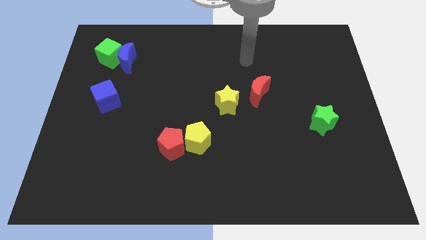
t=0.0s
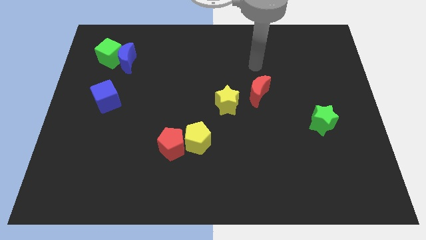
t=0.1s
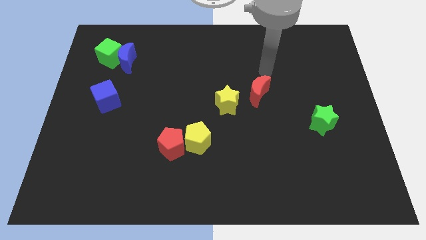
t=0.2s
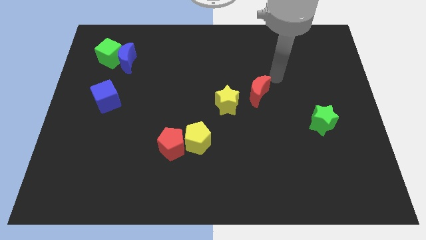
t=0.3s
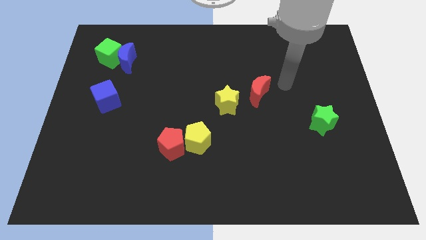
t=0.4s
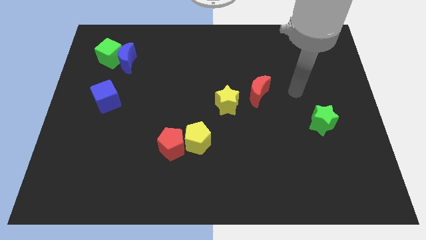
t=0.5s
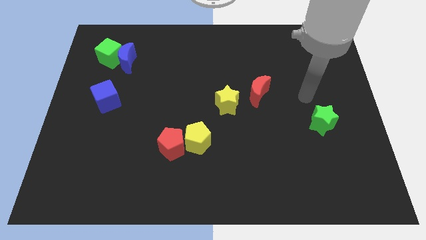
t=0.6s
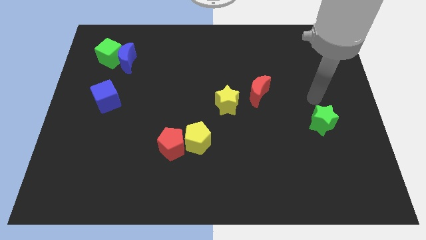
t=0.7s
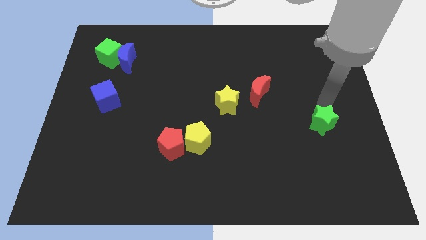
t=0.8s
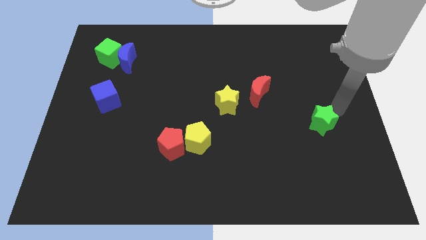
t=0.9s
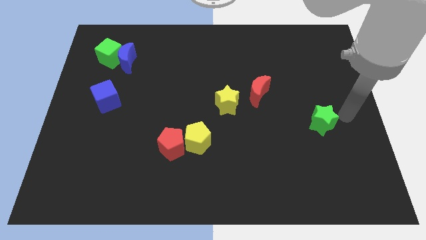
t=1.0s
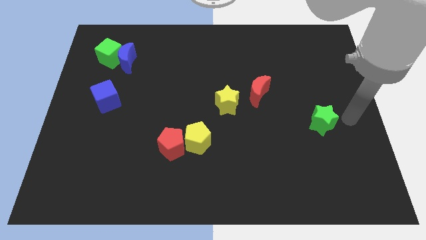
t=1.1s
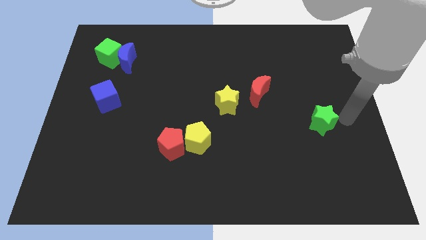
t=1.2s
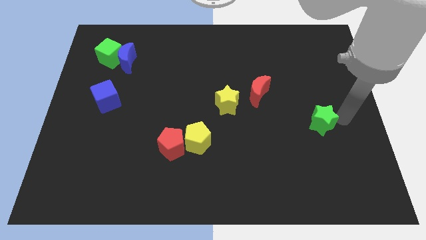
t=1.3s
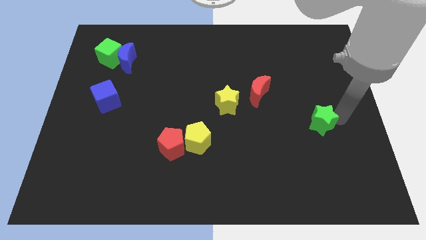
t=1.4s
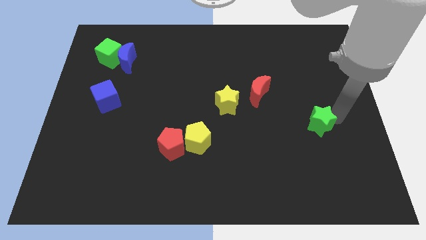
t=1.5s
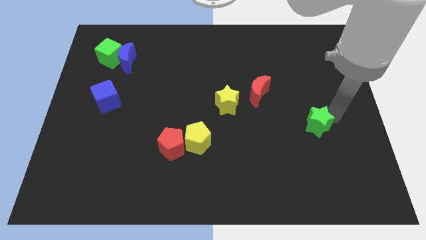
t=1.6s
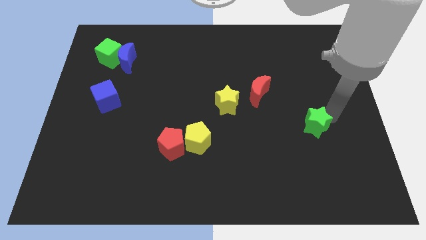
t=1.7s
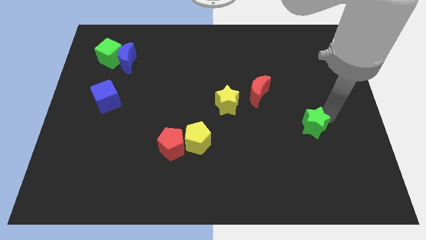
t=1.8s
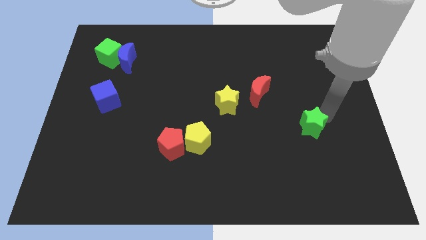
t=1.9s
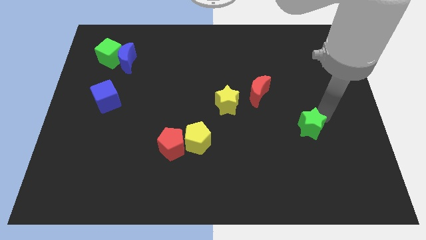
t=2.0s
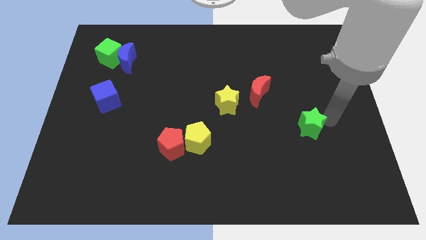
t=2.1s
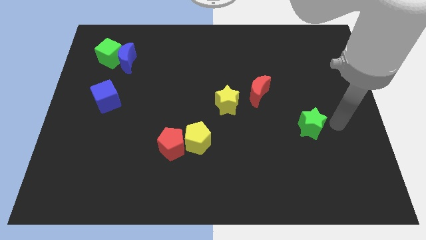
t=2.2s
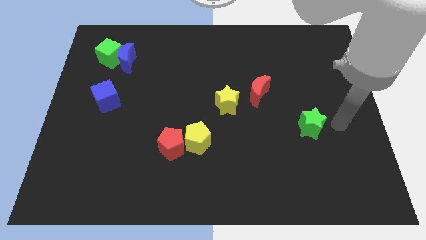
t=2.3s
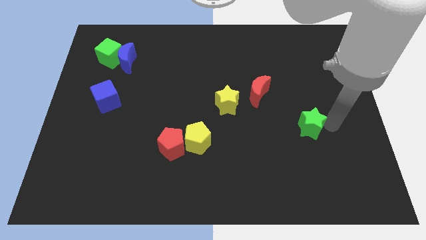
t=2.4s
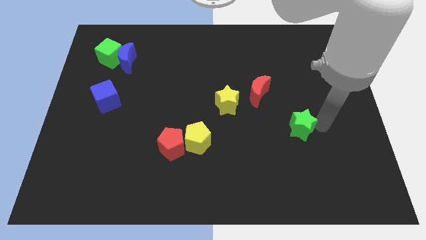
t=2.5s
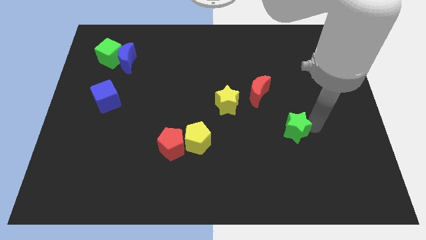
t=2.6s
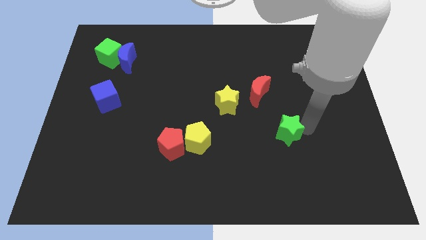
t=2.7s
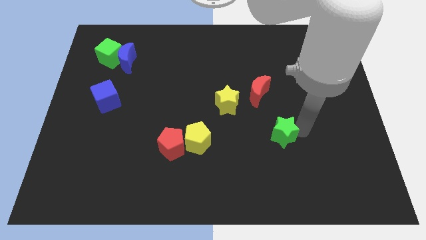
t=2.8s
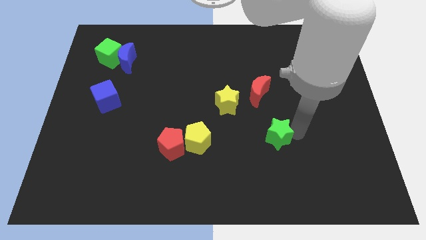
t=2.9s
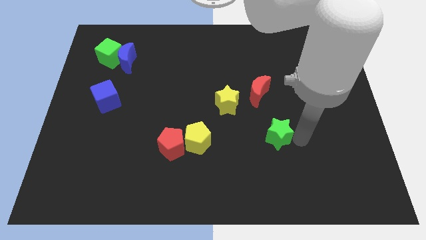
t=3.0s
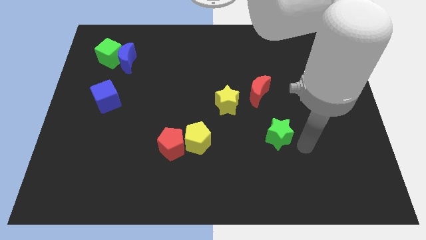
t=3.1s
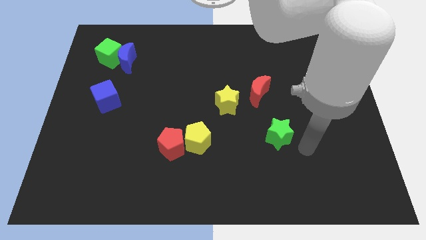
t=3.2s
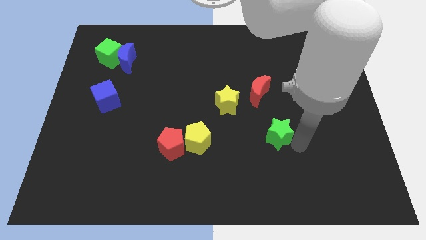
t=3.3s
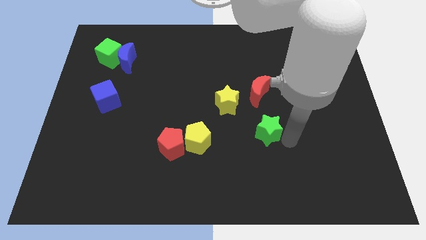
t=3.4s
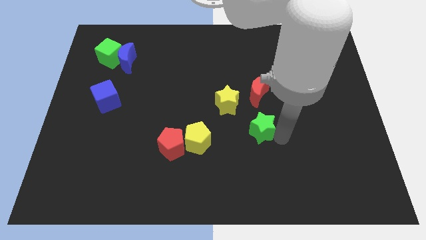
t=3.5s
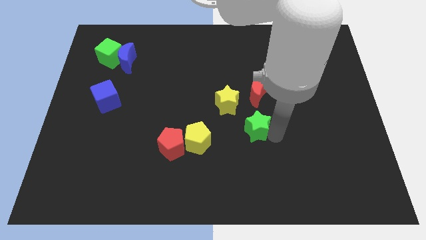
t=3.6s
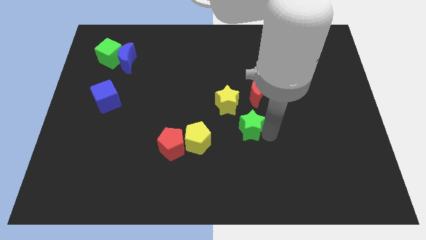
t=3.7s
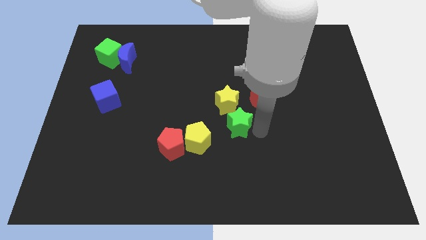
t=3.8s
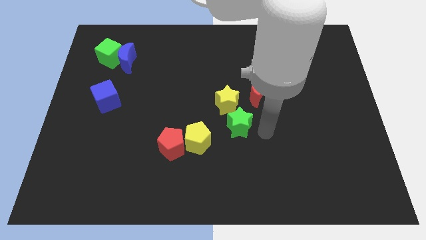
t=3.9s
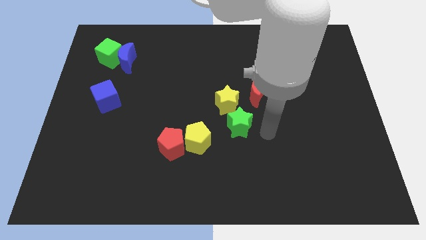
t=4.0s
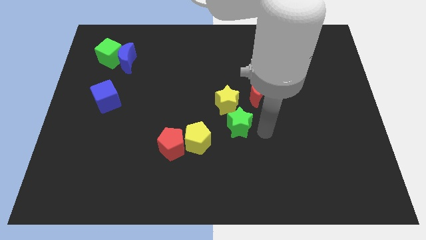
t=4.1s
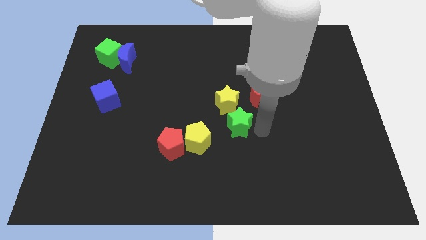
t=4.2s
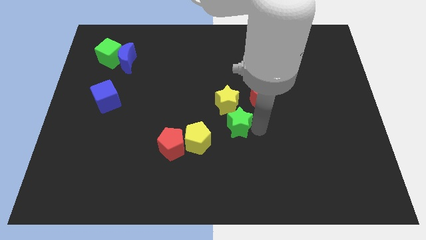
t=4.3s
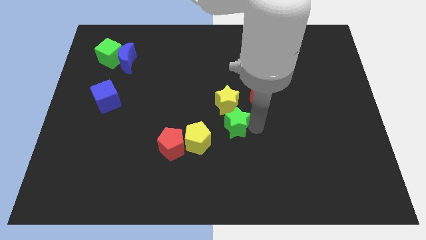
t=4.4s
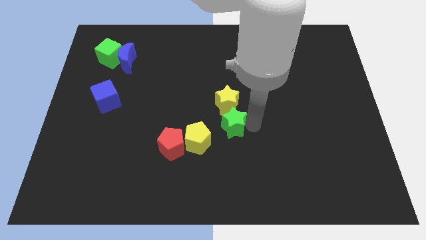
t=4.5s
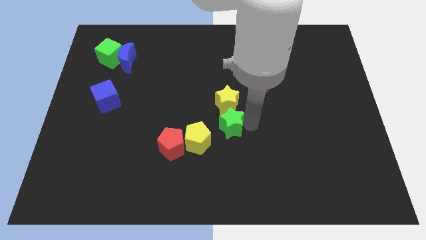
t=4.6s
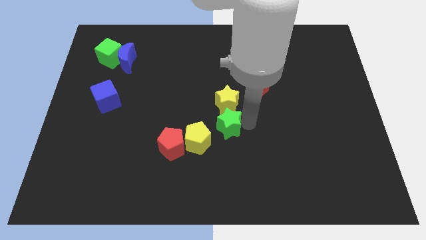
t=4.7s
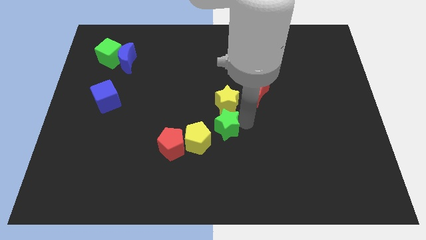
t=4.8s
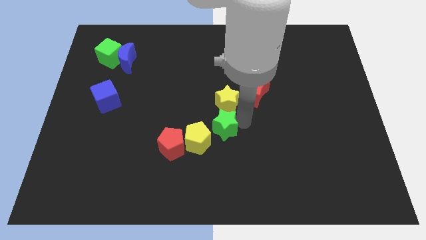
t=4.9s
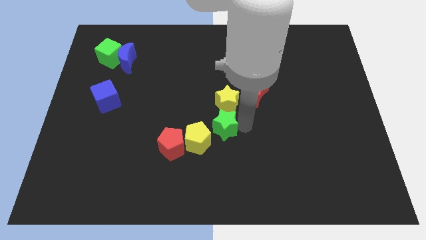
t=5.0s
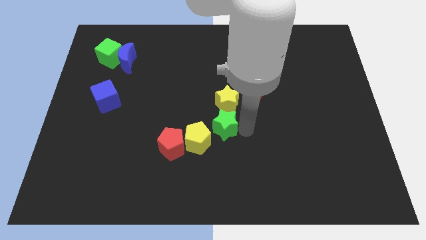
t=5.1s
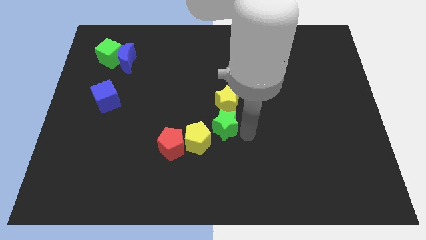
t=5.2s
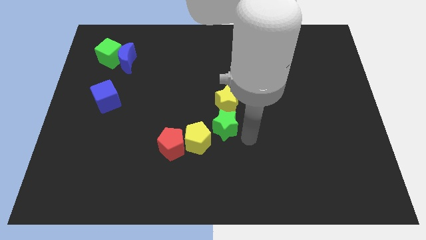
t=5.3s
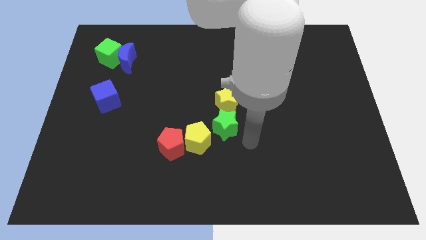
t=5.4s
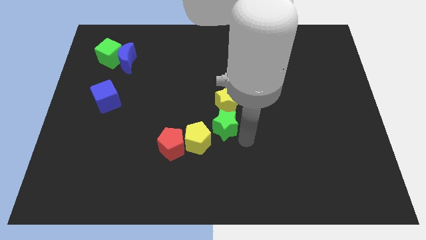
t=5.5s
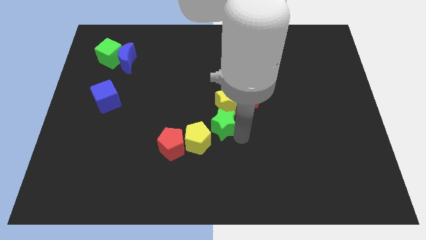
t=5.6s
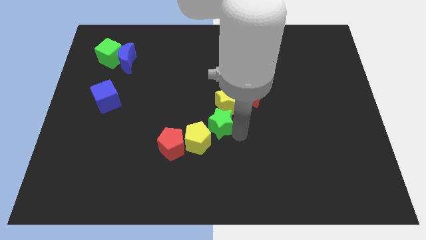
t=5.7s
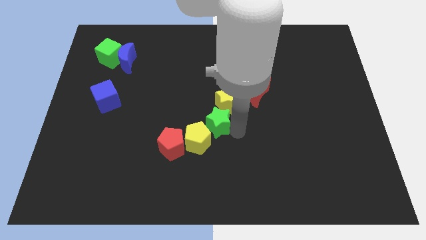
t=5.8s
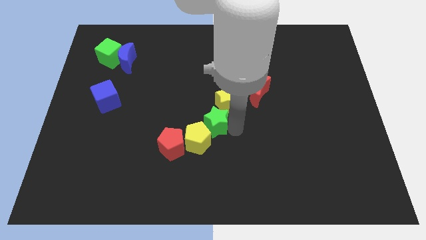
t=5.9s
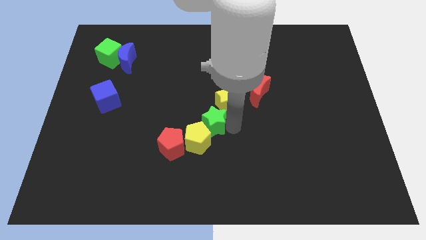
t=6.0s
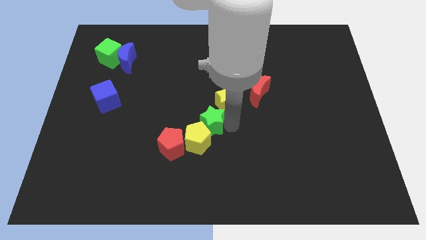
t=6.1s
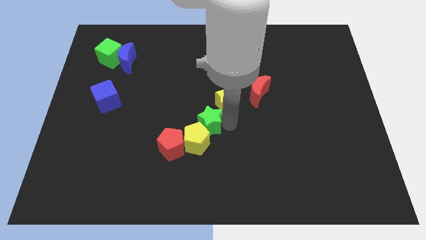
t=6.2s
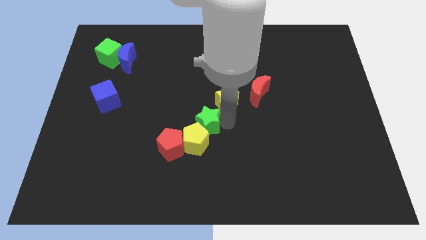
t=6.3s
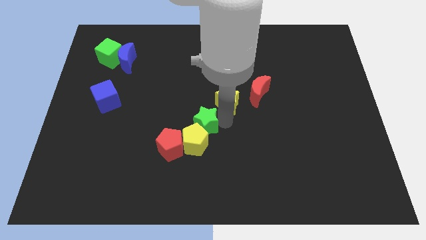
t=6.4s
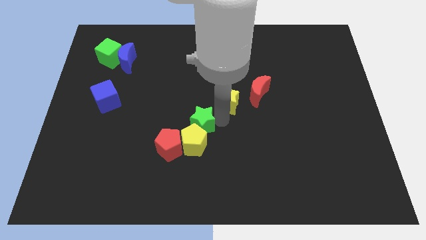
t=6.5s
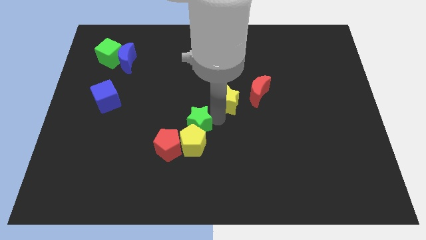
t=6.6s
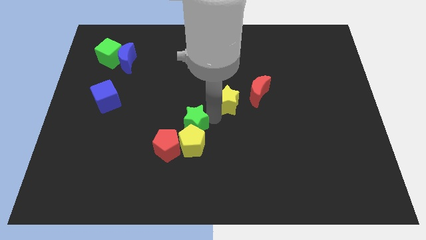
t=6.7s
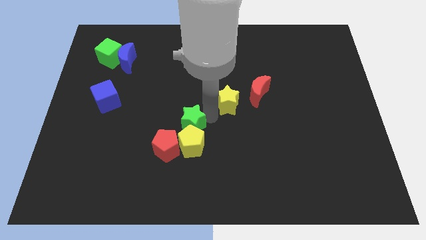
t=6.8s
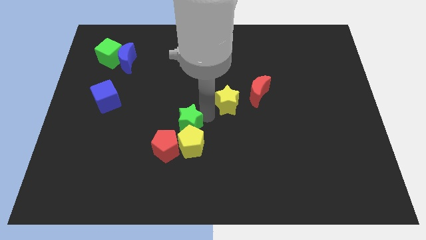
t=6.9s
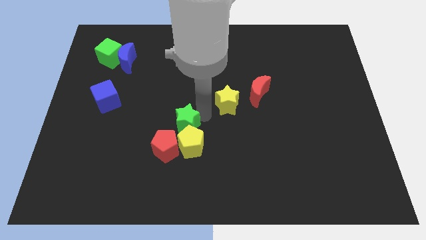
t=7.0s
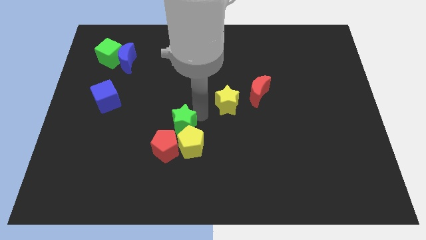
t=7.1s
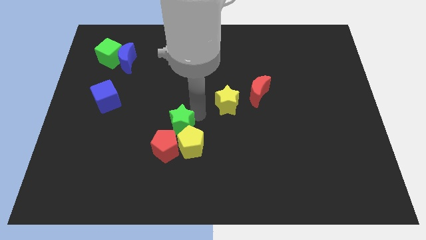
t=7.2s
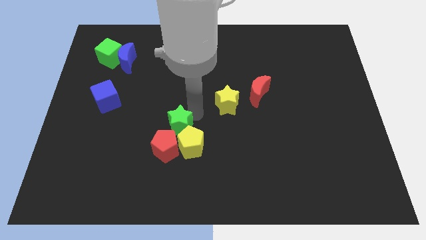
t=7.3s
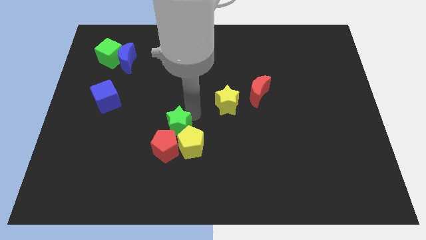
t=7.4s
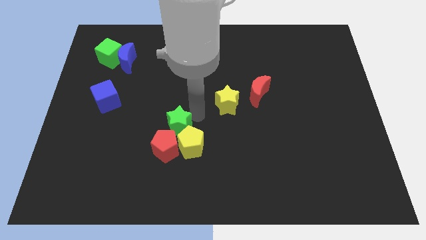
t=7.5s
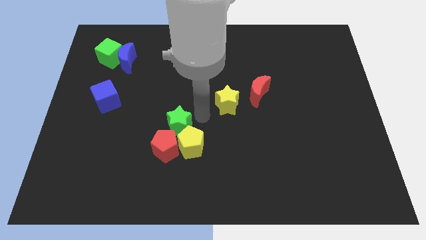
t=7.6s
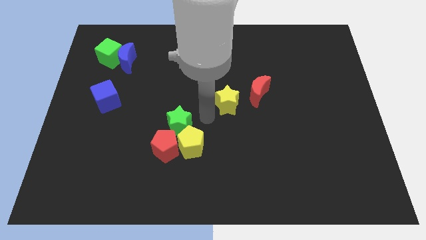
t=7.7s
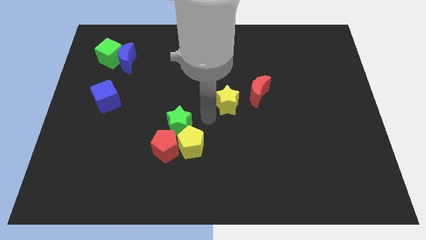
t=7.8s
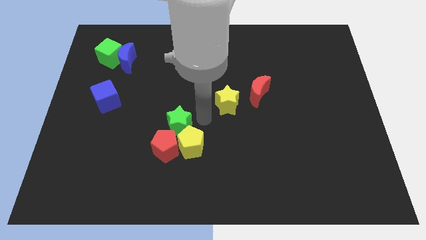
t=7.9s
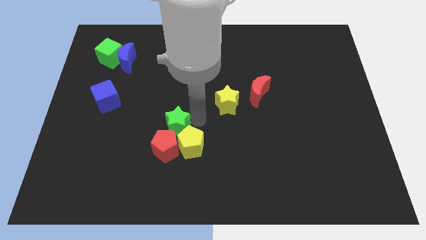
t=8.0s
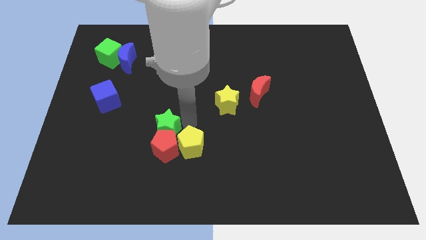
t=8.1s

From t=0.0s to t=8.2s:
move the green star to the top left of the red pentagon
